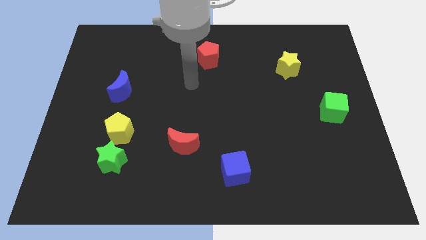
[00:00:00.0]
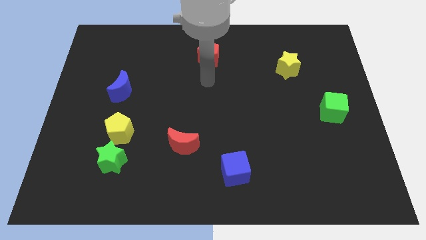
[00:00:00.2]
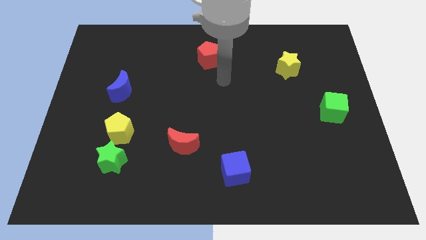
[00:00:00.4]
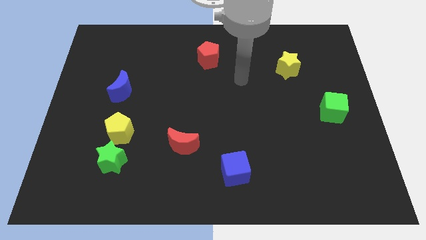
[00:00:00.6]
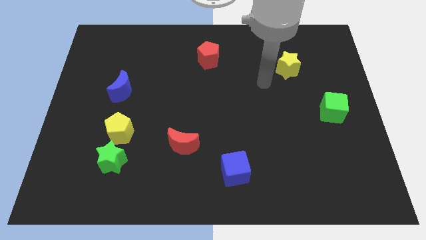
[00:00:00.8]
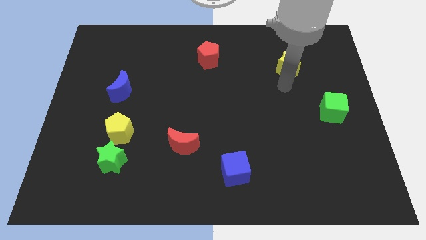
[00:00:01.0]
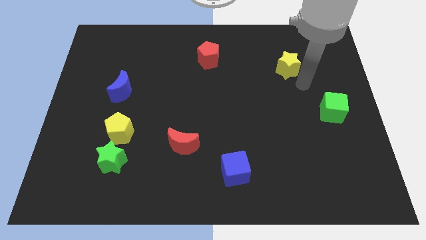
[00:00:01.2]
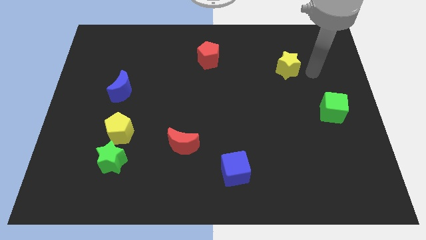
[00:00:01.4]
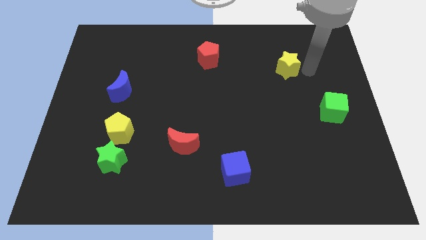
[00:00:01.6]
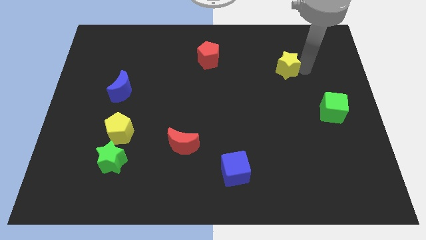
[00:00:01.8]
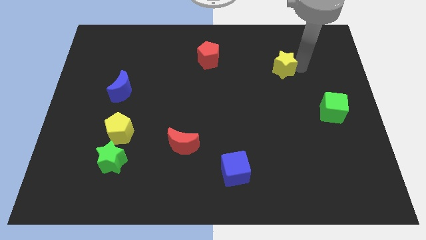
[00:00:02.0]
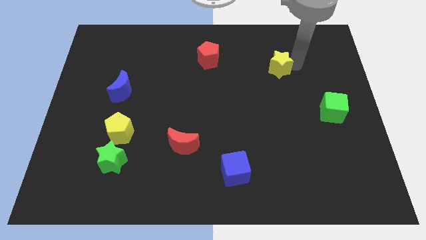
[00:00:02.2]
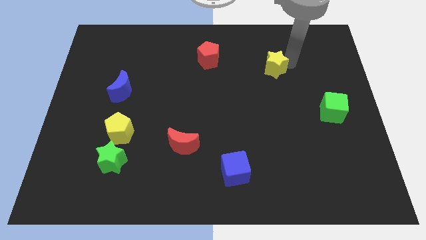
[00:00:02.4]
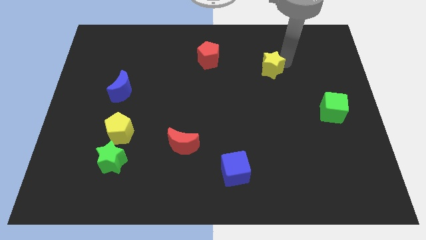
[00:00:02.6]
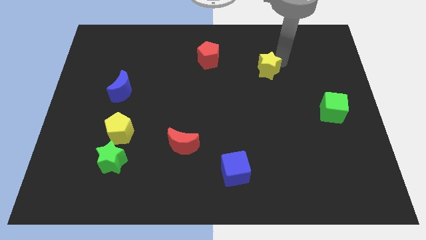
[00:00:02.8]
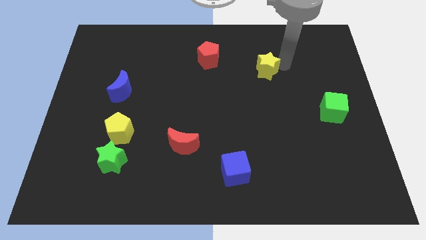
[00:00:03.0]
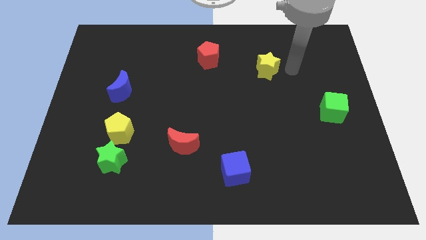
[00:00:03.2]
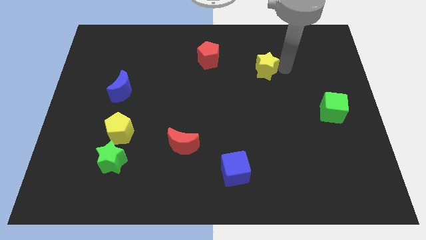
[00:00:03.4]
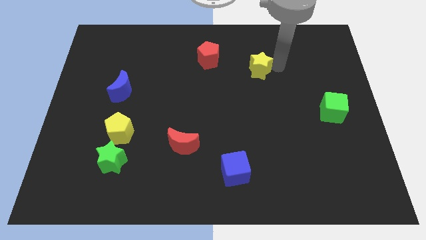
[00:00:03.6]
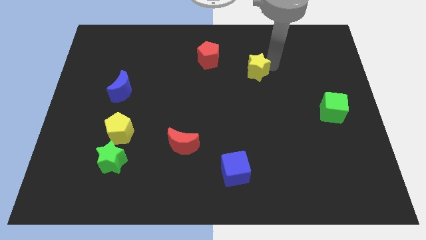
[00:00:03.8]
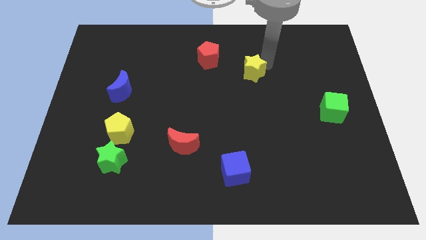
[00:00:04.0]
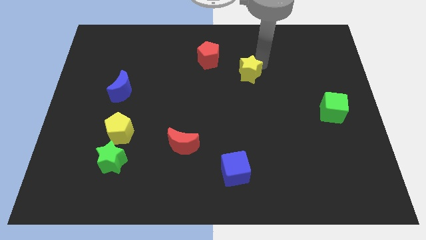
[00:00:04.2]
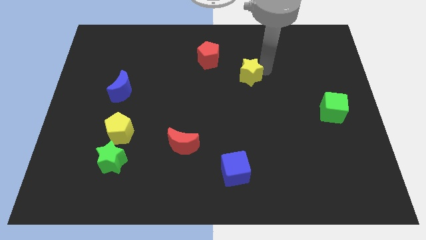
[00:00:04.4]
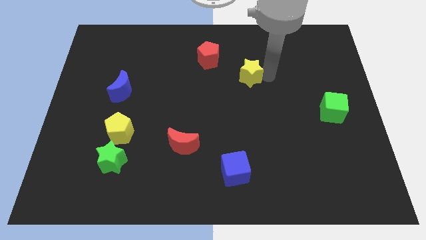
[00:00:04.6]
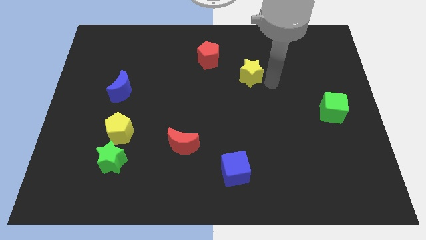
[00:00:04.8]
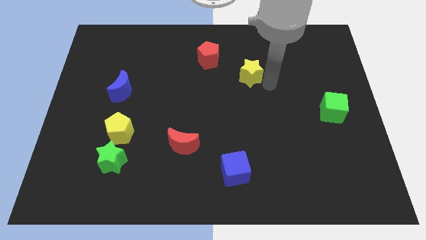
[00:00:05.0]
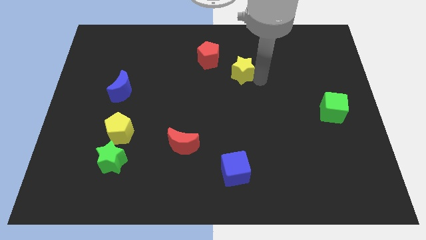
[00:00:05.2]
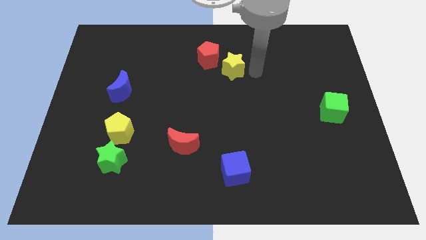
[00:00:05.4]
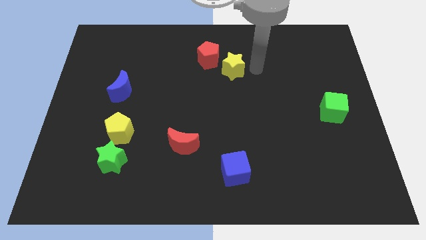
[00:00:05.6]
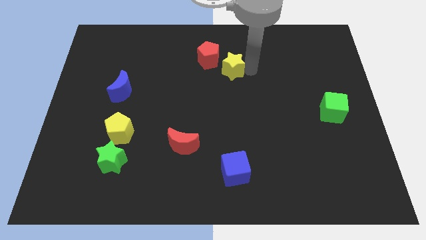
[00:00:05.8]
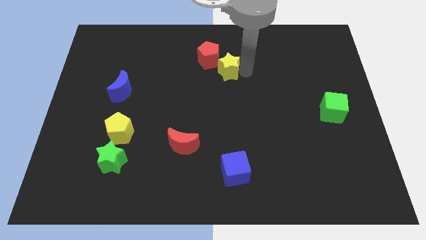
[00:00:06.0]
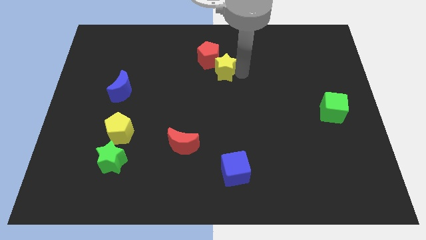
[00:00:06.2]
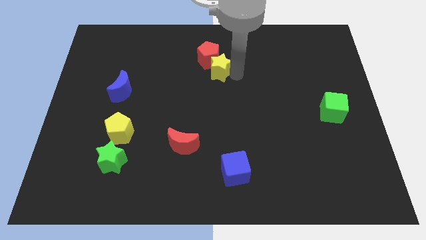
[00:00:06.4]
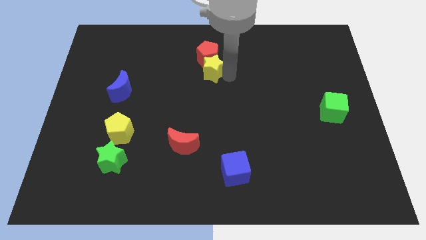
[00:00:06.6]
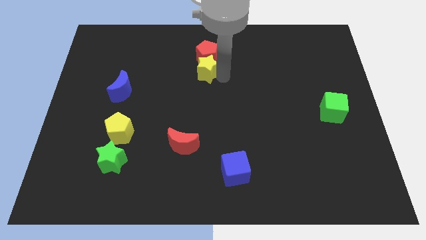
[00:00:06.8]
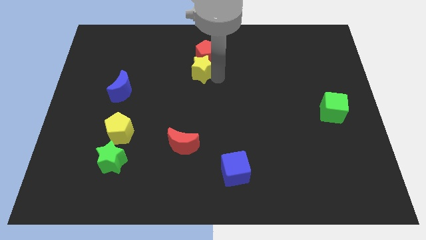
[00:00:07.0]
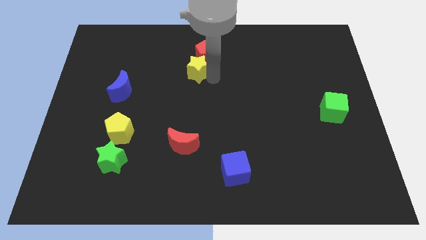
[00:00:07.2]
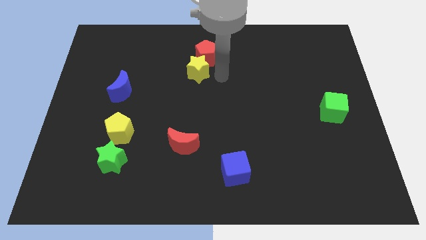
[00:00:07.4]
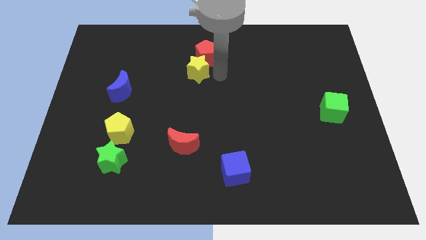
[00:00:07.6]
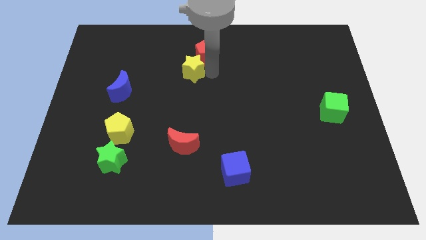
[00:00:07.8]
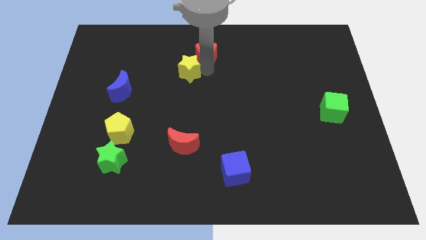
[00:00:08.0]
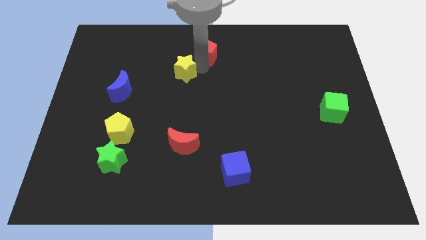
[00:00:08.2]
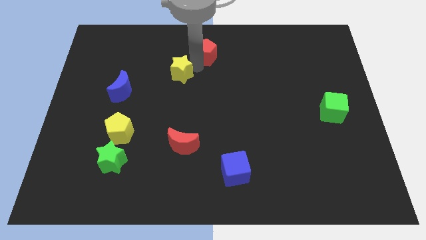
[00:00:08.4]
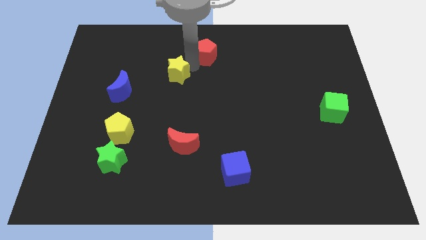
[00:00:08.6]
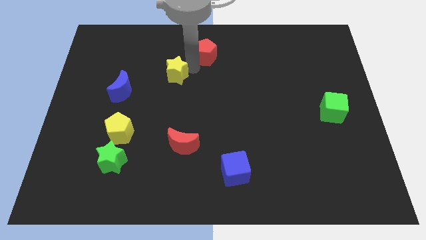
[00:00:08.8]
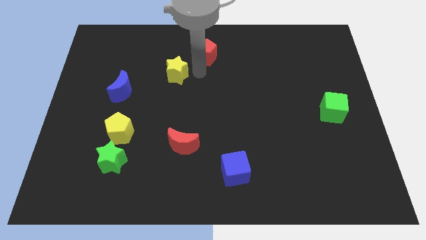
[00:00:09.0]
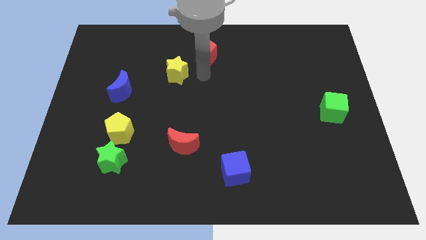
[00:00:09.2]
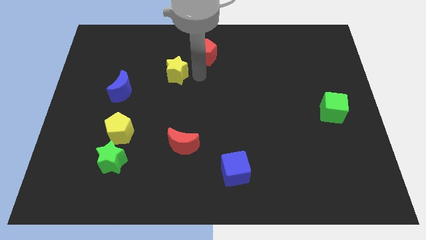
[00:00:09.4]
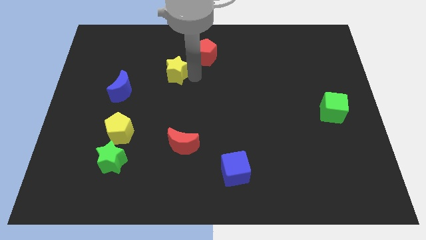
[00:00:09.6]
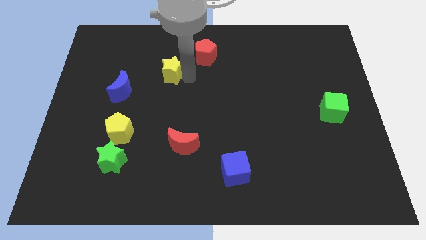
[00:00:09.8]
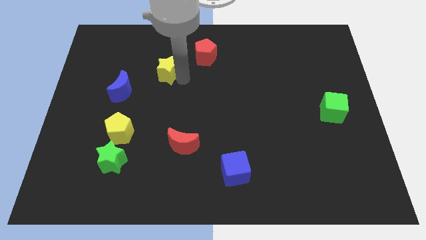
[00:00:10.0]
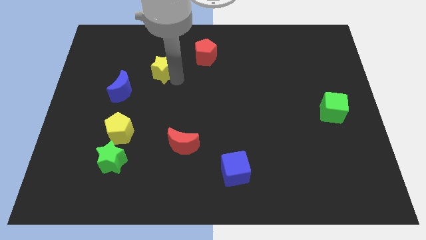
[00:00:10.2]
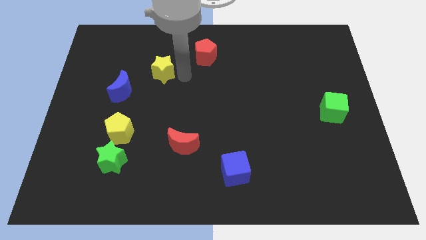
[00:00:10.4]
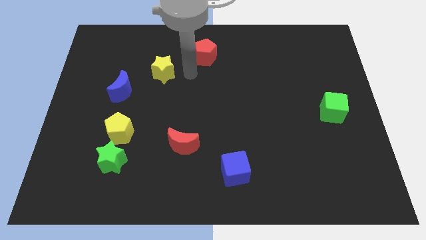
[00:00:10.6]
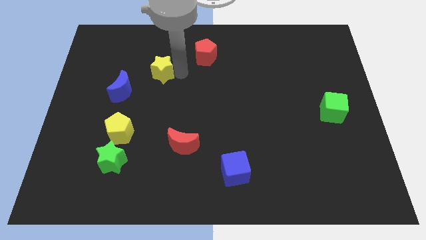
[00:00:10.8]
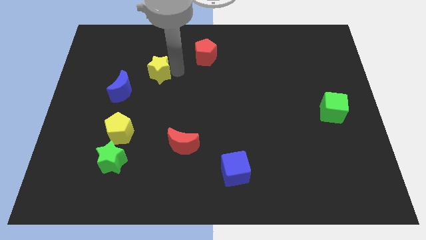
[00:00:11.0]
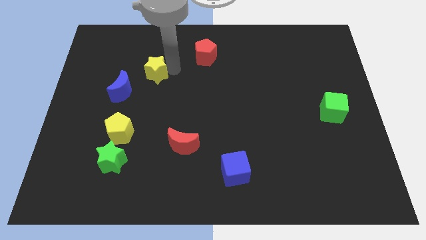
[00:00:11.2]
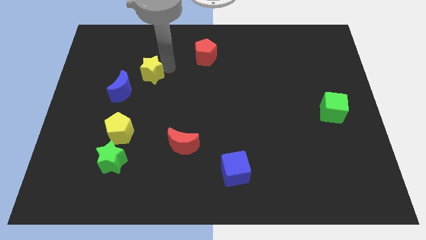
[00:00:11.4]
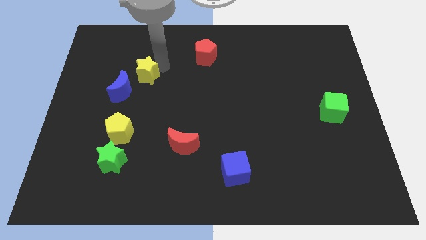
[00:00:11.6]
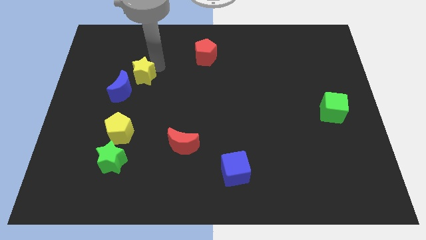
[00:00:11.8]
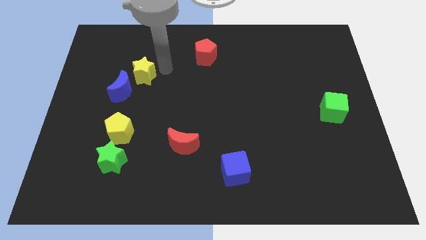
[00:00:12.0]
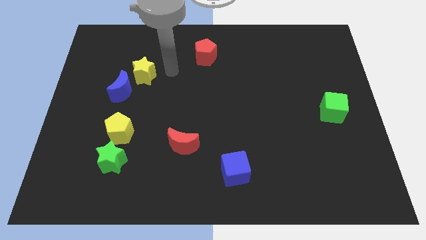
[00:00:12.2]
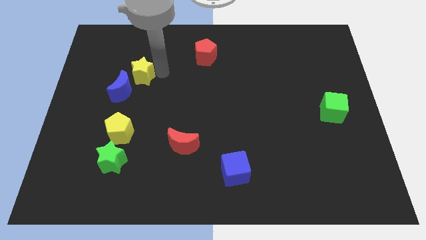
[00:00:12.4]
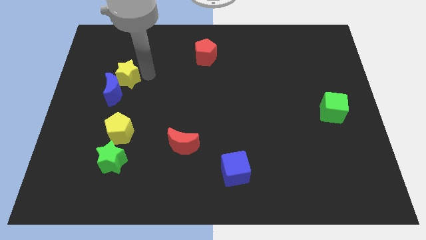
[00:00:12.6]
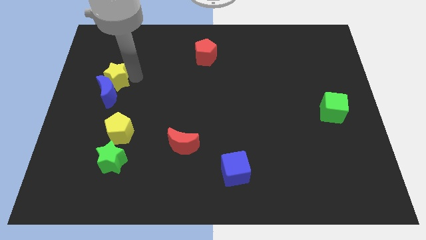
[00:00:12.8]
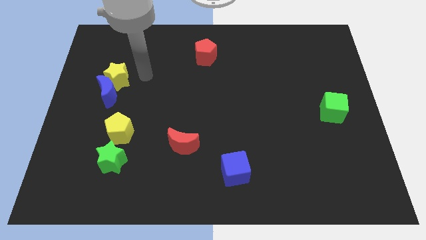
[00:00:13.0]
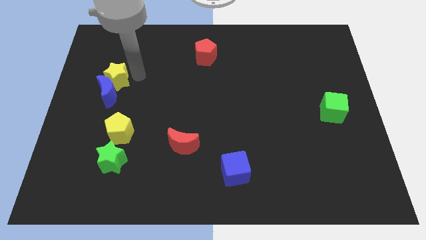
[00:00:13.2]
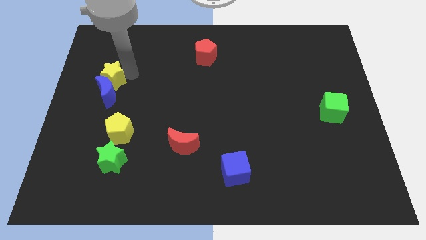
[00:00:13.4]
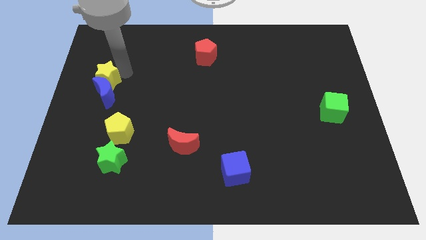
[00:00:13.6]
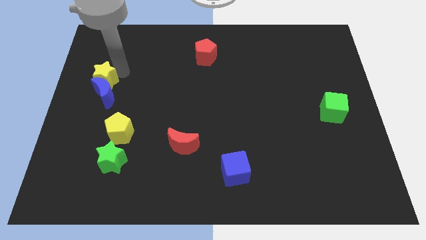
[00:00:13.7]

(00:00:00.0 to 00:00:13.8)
slide the yellow star to the left side
